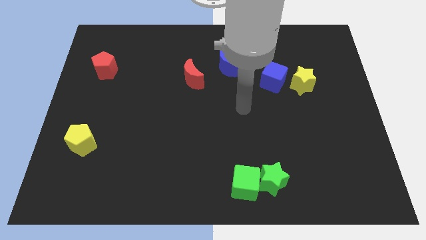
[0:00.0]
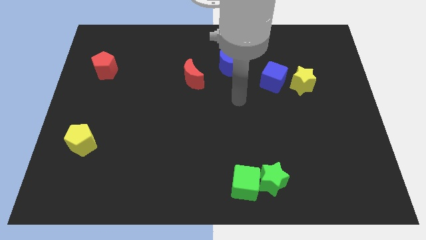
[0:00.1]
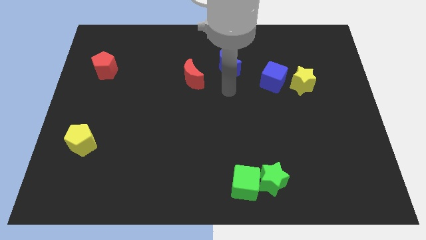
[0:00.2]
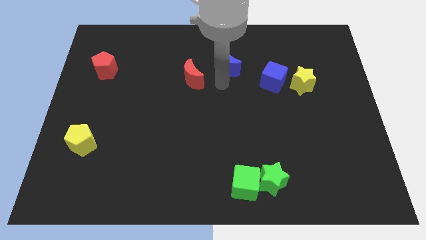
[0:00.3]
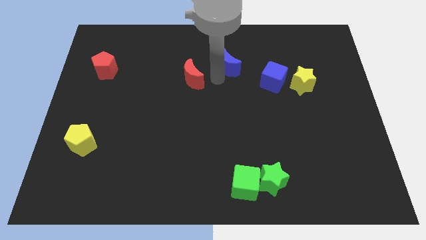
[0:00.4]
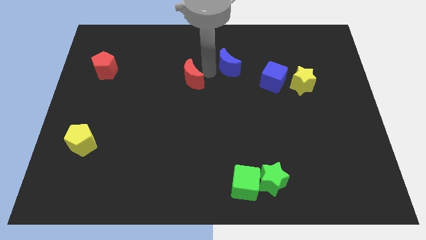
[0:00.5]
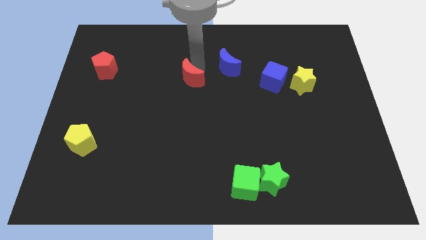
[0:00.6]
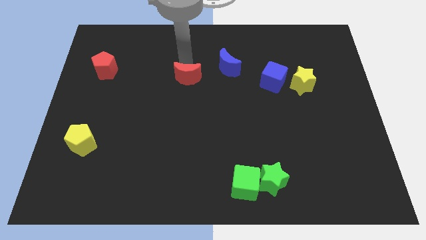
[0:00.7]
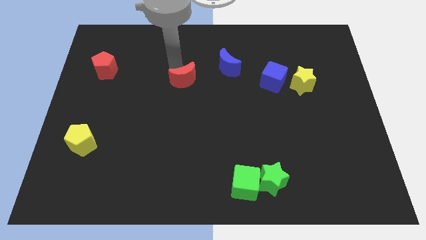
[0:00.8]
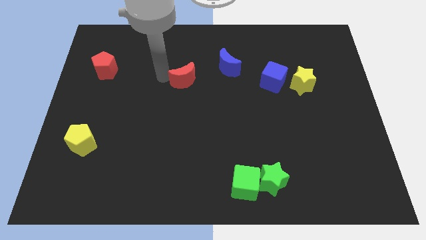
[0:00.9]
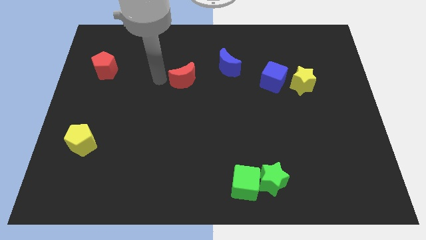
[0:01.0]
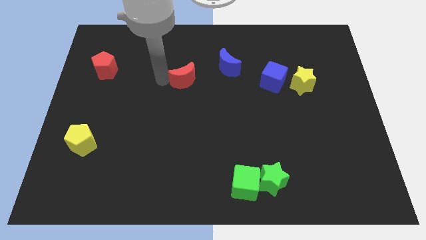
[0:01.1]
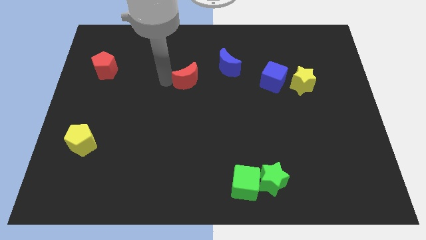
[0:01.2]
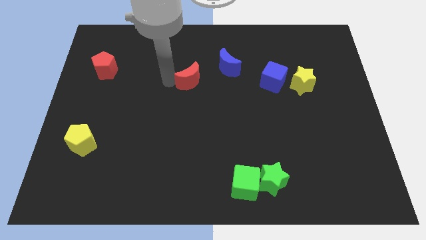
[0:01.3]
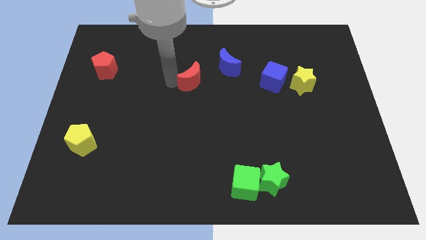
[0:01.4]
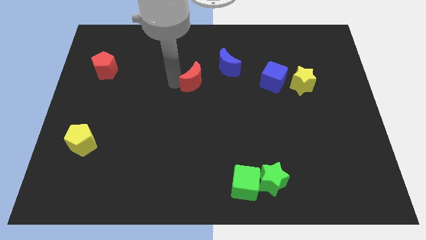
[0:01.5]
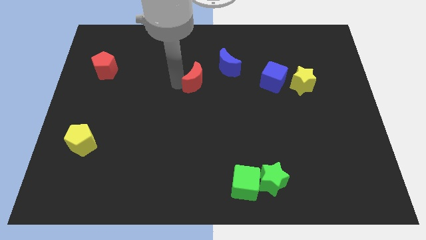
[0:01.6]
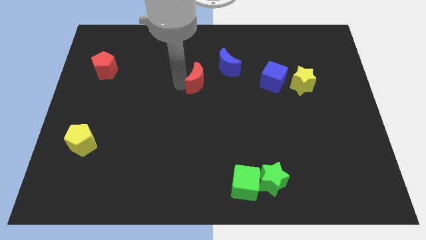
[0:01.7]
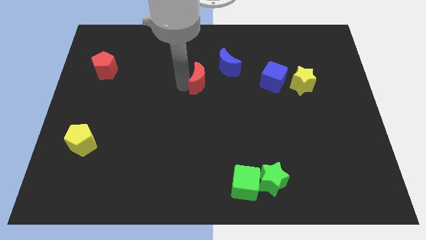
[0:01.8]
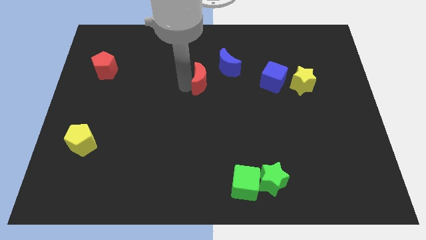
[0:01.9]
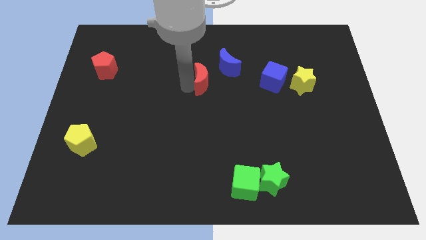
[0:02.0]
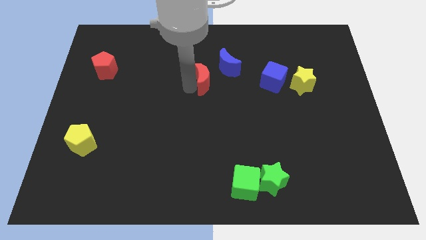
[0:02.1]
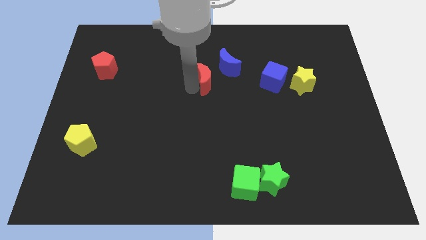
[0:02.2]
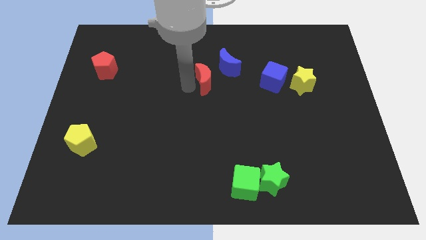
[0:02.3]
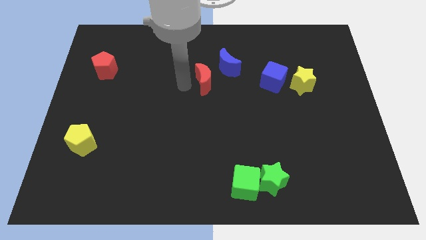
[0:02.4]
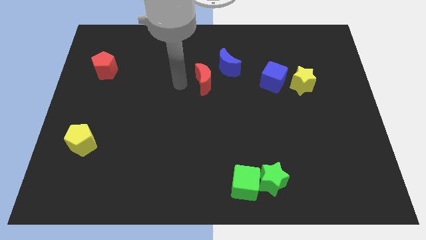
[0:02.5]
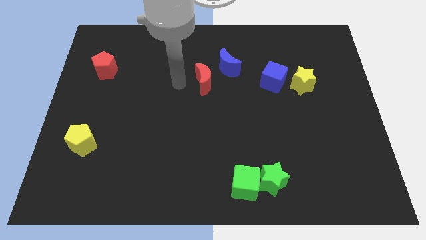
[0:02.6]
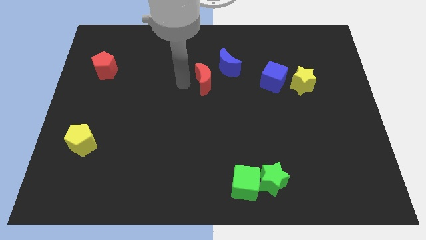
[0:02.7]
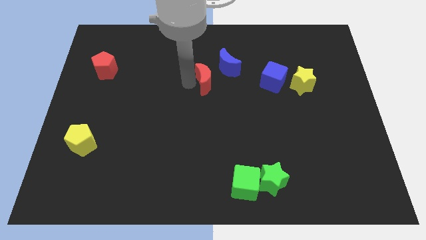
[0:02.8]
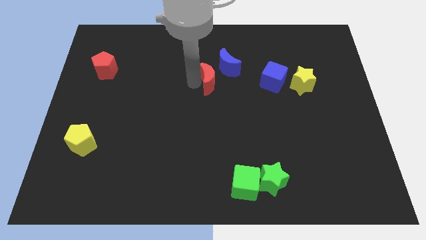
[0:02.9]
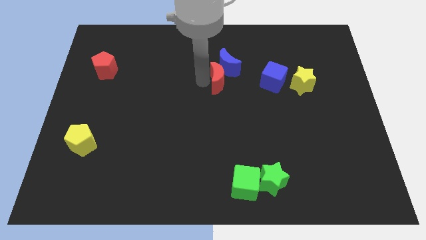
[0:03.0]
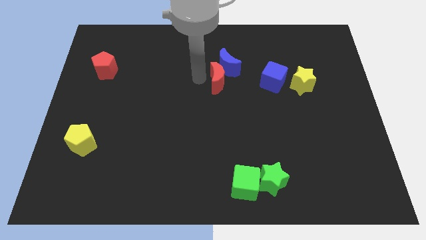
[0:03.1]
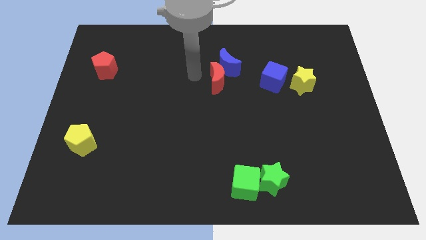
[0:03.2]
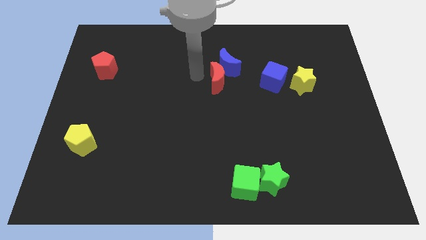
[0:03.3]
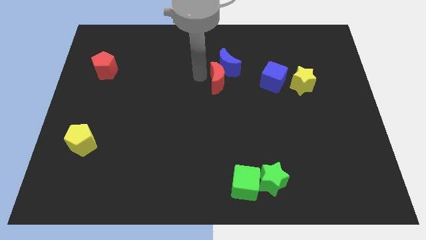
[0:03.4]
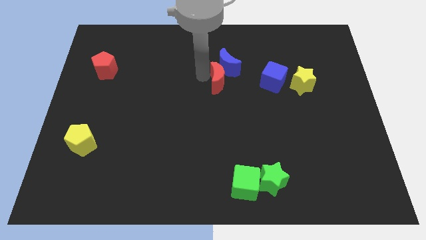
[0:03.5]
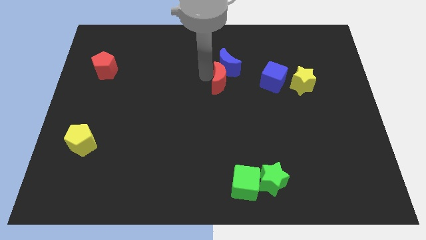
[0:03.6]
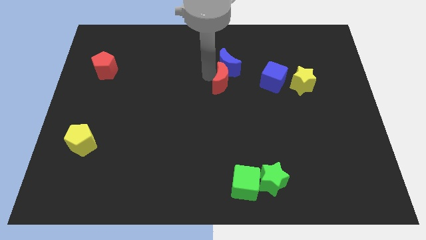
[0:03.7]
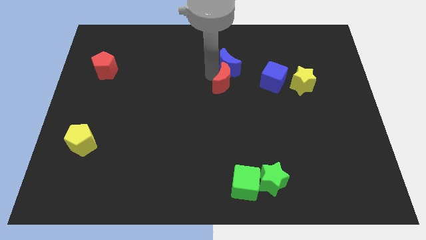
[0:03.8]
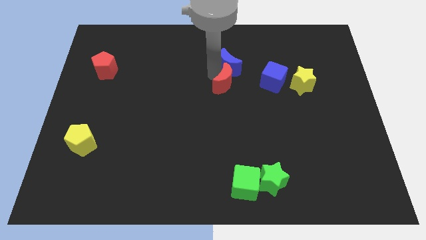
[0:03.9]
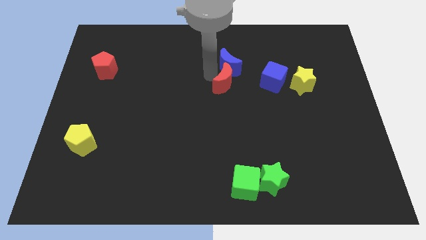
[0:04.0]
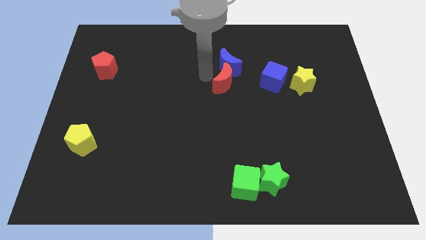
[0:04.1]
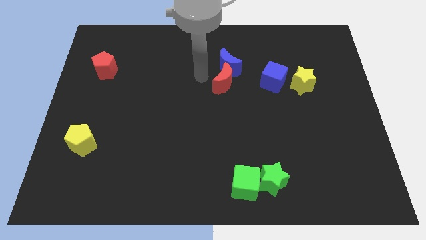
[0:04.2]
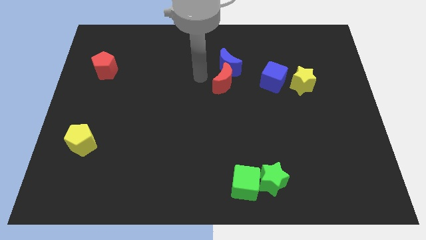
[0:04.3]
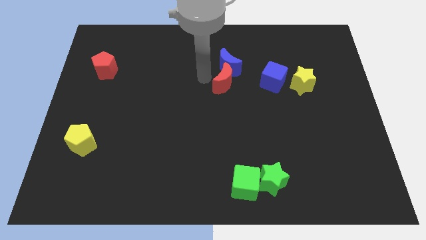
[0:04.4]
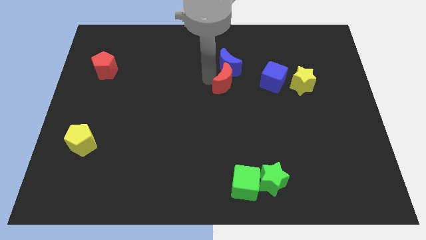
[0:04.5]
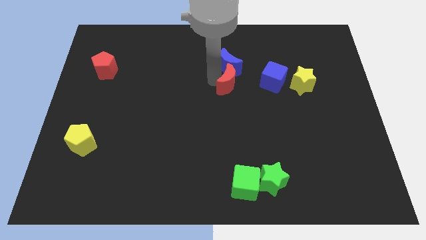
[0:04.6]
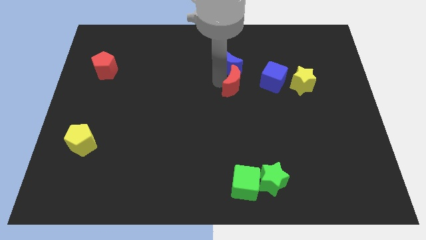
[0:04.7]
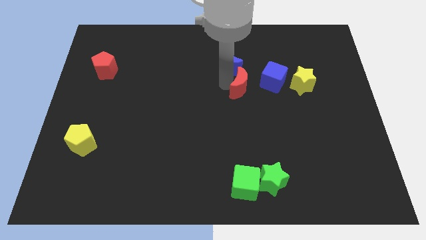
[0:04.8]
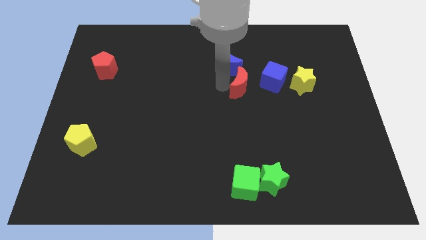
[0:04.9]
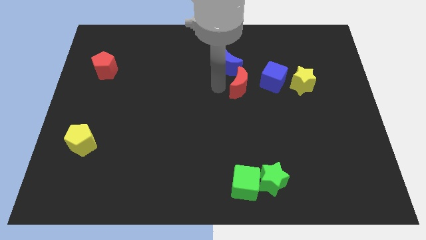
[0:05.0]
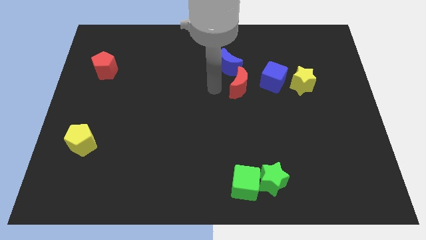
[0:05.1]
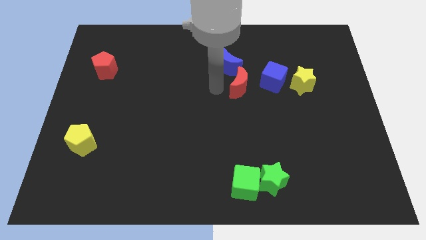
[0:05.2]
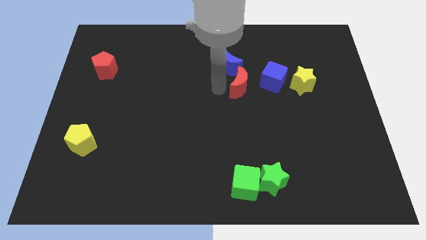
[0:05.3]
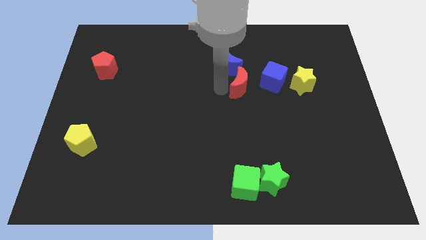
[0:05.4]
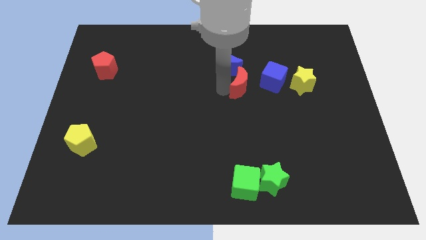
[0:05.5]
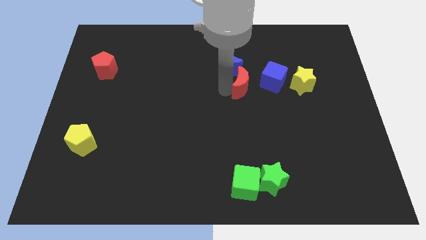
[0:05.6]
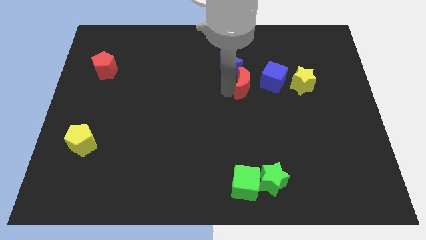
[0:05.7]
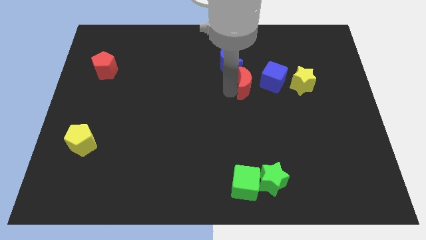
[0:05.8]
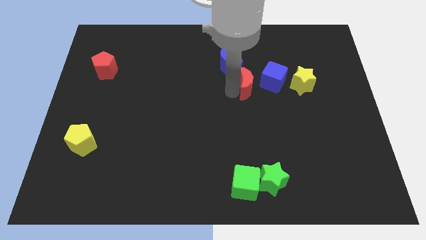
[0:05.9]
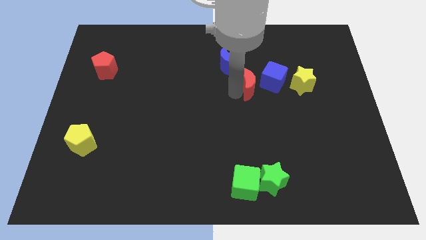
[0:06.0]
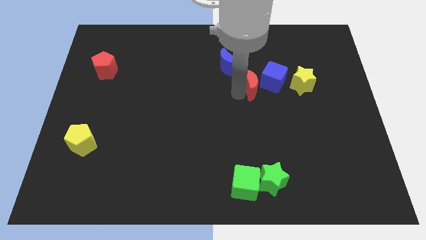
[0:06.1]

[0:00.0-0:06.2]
put the red moon towards the blue cube

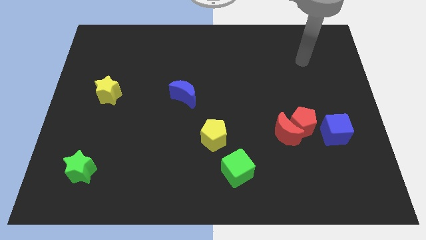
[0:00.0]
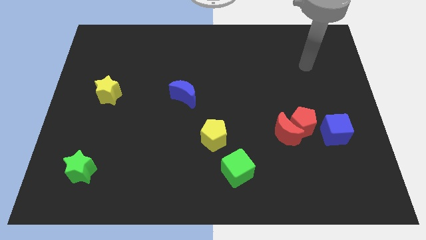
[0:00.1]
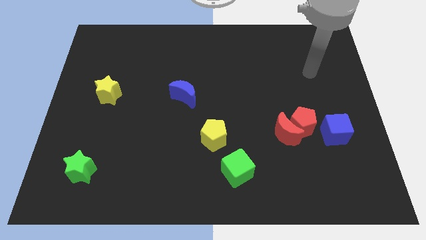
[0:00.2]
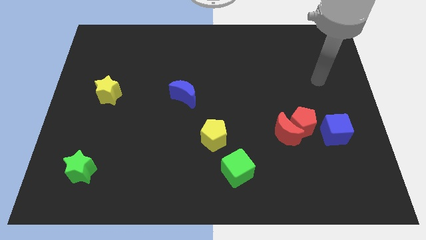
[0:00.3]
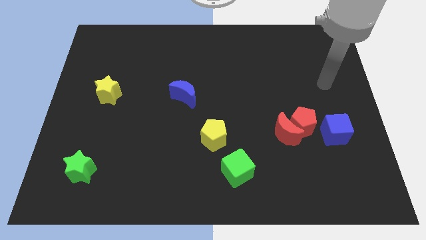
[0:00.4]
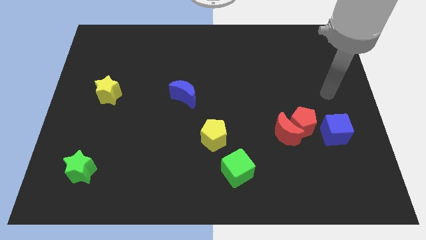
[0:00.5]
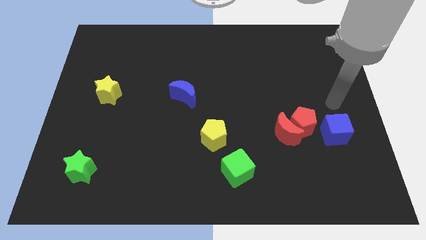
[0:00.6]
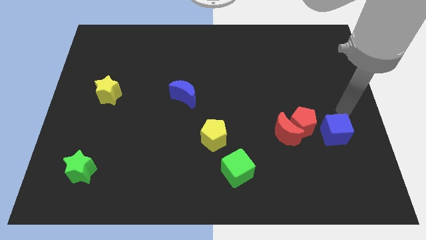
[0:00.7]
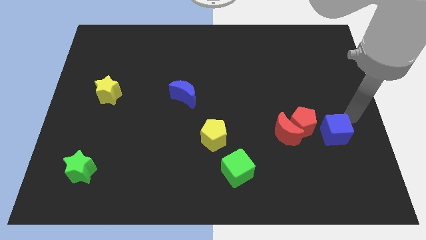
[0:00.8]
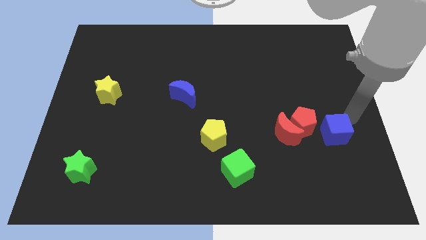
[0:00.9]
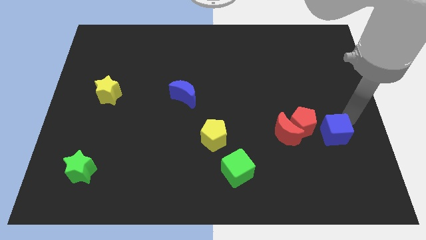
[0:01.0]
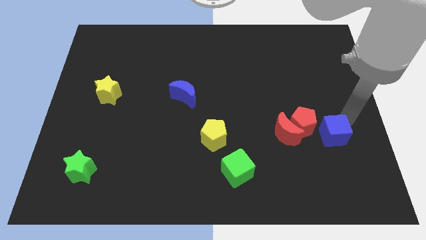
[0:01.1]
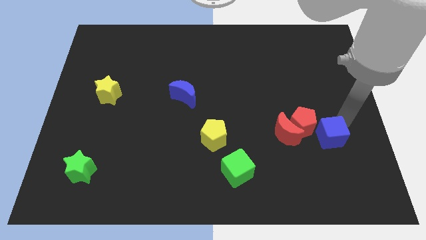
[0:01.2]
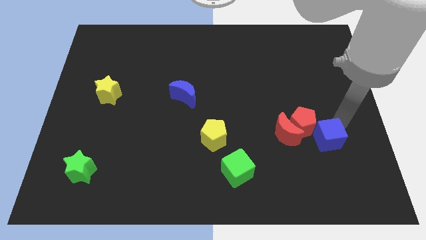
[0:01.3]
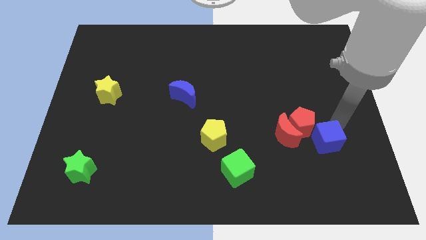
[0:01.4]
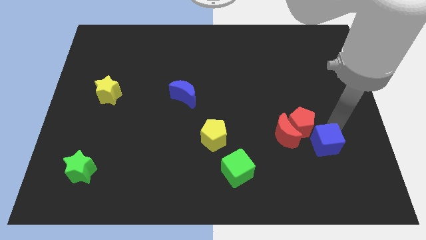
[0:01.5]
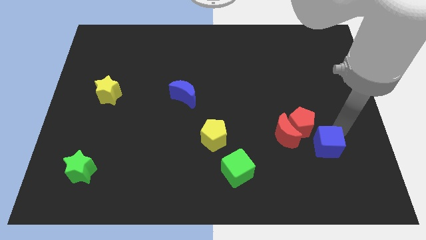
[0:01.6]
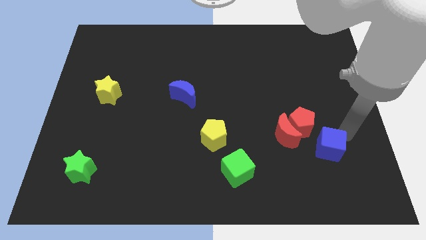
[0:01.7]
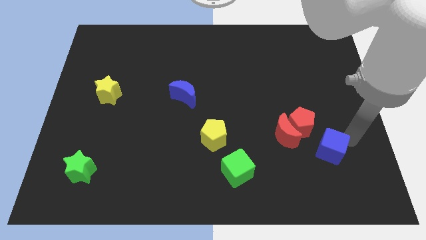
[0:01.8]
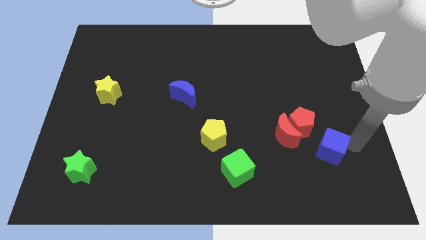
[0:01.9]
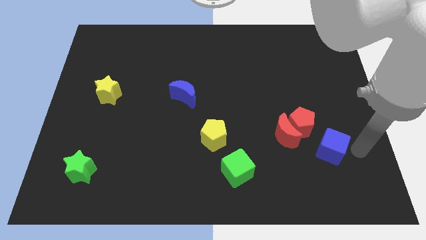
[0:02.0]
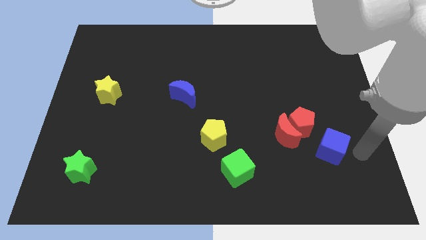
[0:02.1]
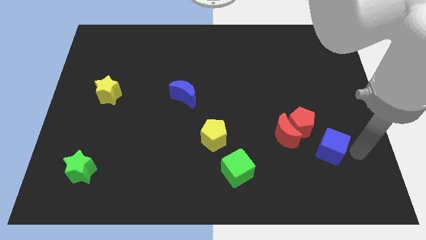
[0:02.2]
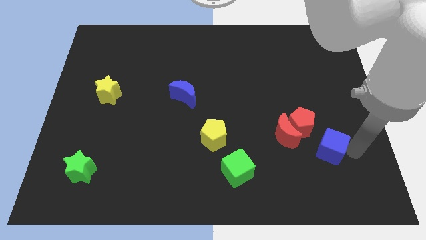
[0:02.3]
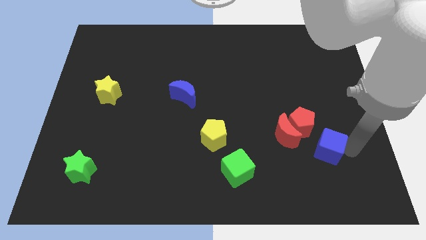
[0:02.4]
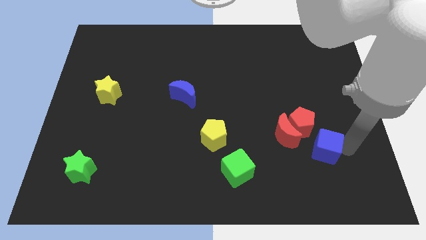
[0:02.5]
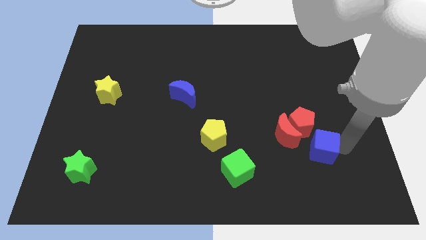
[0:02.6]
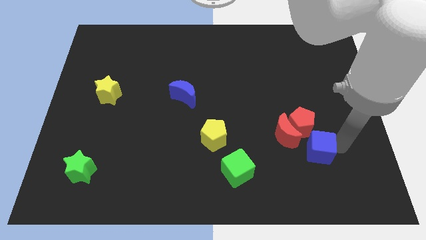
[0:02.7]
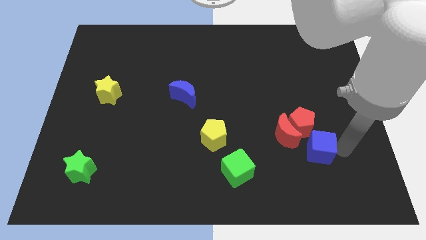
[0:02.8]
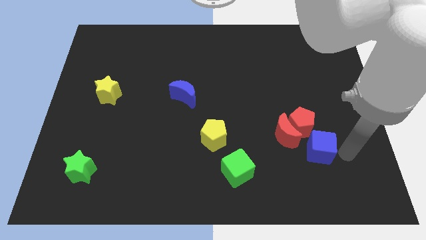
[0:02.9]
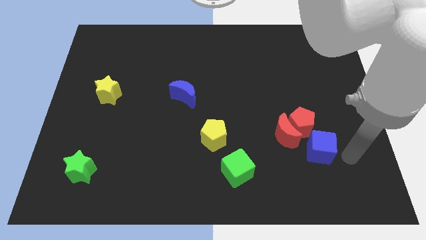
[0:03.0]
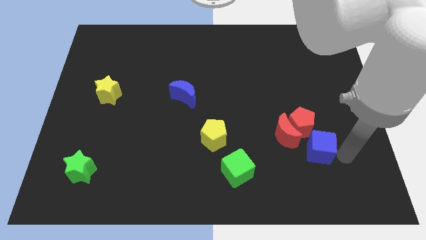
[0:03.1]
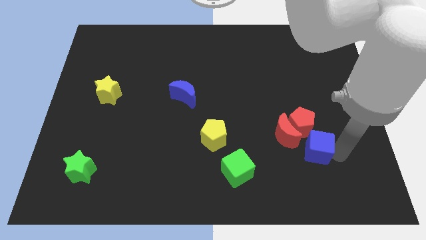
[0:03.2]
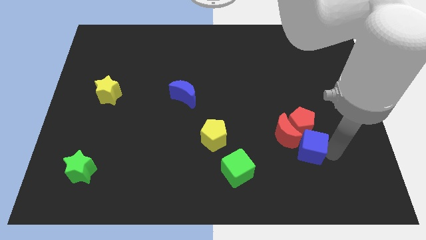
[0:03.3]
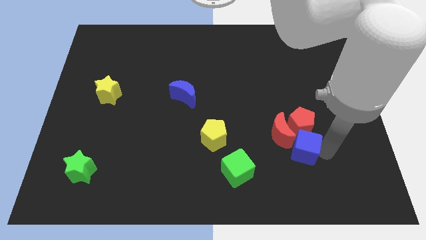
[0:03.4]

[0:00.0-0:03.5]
put the blue cube close to the red moon
